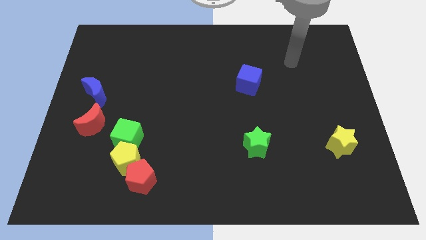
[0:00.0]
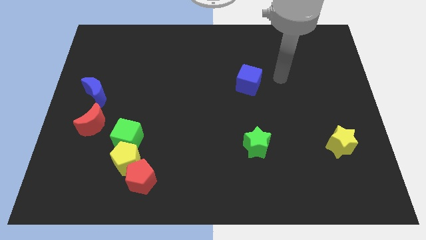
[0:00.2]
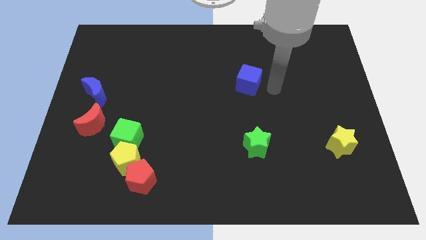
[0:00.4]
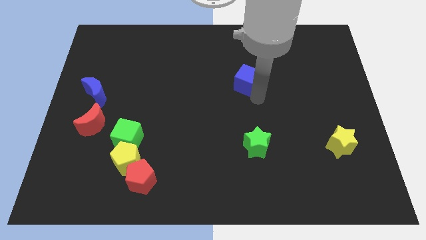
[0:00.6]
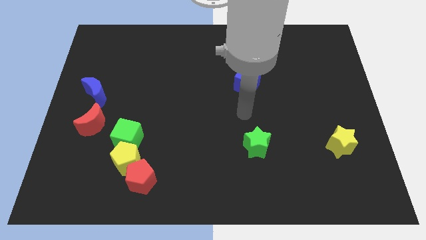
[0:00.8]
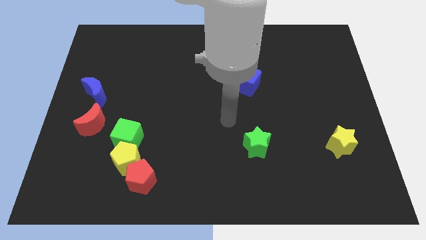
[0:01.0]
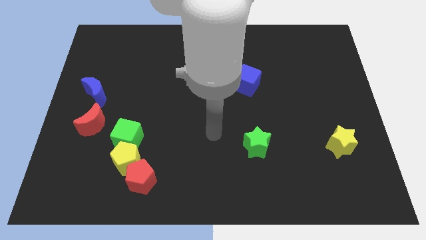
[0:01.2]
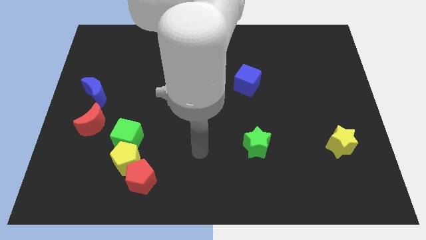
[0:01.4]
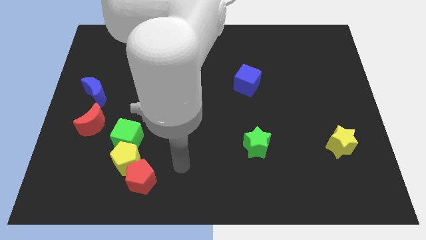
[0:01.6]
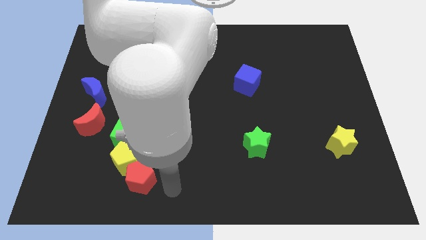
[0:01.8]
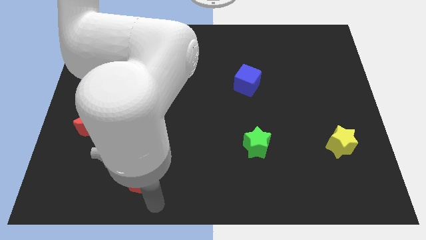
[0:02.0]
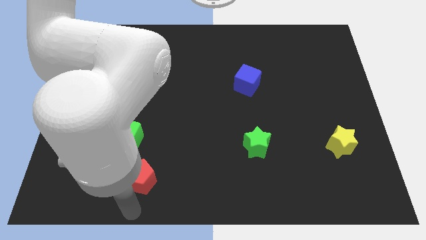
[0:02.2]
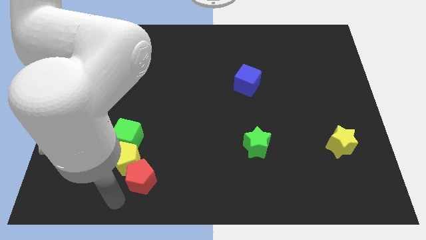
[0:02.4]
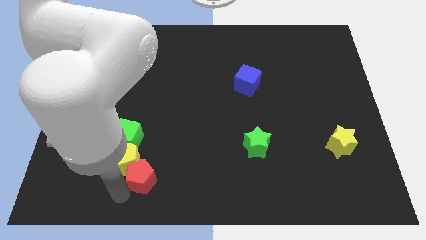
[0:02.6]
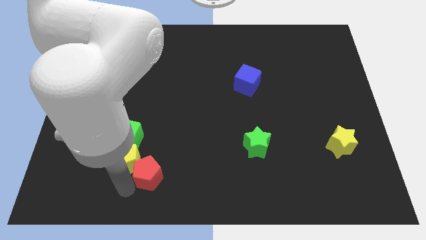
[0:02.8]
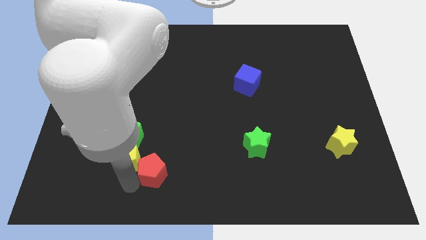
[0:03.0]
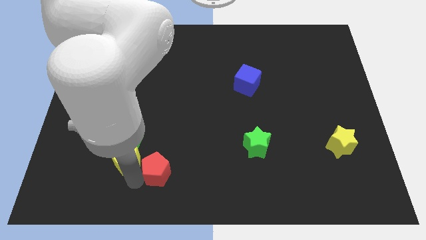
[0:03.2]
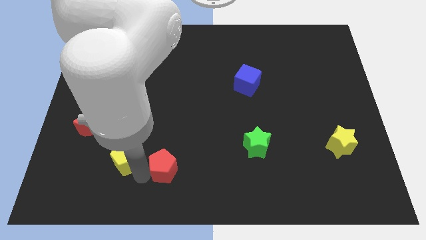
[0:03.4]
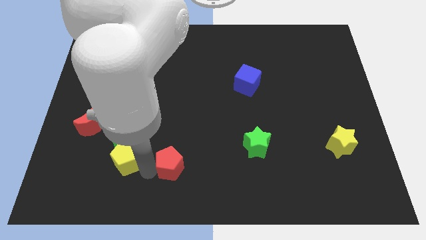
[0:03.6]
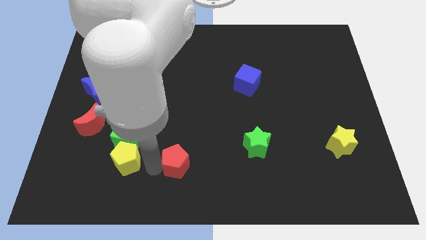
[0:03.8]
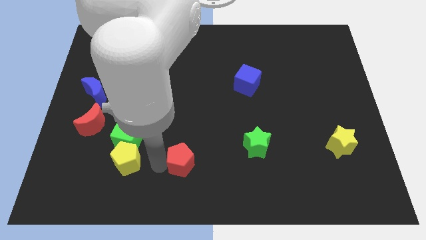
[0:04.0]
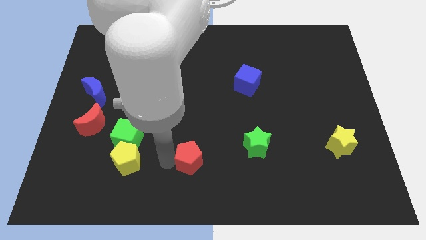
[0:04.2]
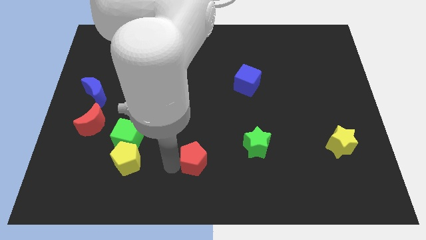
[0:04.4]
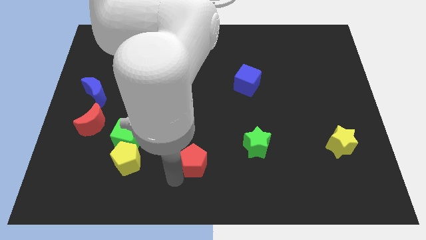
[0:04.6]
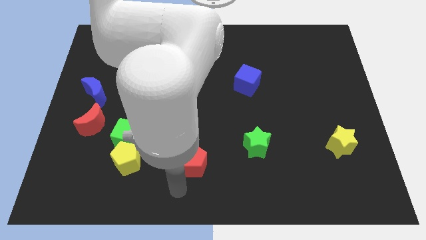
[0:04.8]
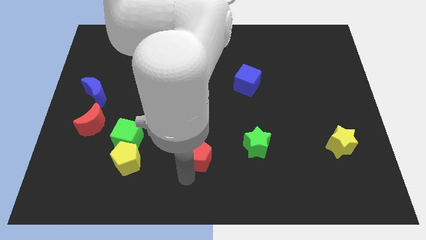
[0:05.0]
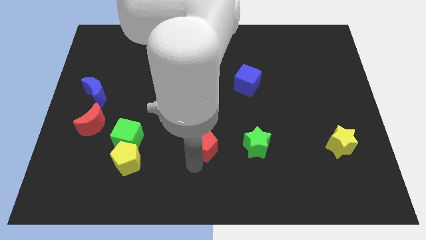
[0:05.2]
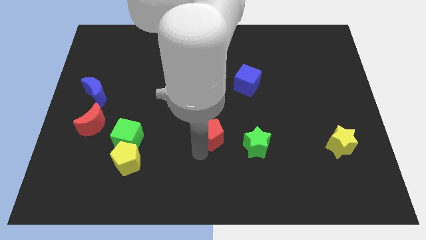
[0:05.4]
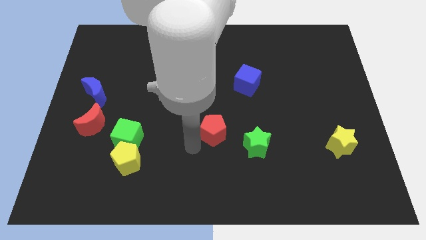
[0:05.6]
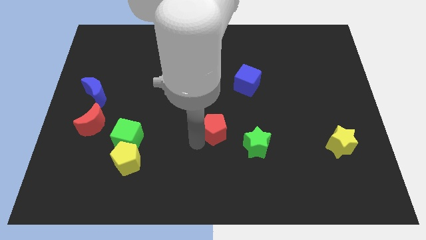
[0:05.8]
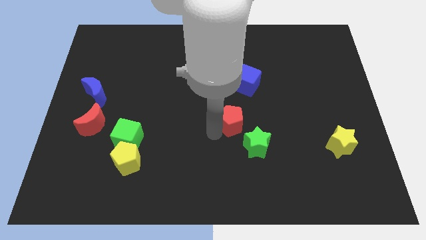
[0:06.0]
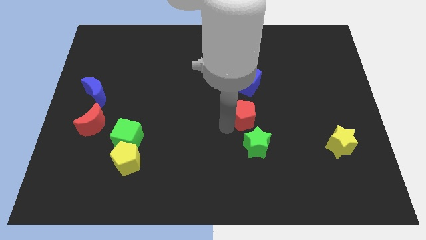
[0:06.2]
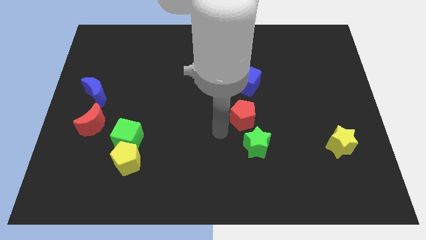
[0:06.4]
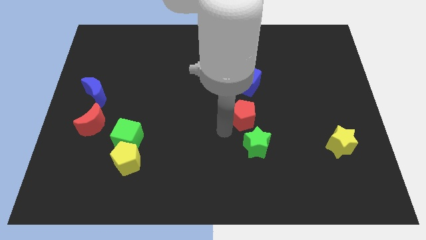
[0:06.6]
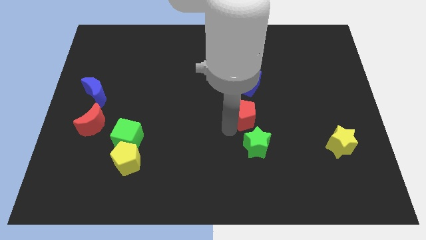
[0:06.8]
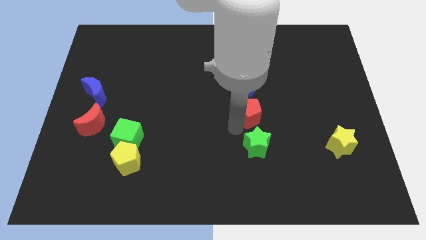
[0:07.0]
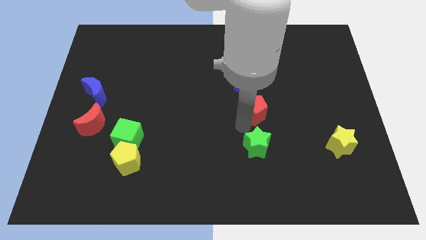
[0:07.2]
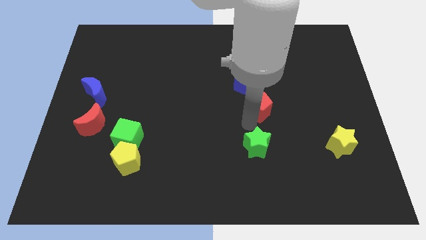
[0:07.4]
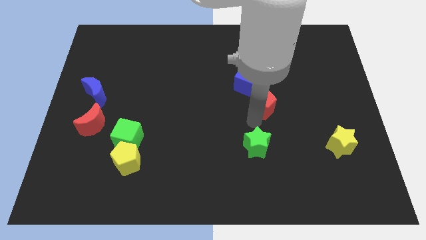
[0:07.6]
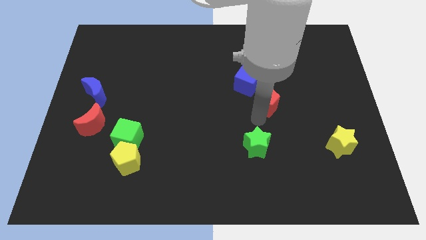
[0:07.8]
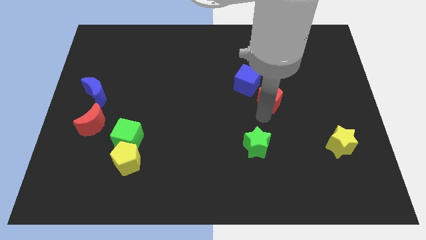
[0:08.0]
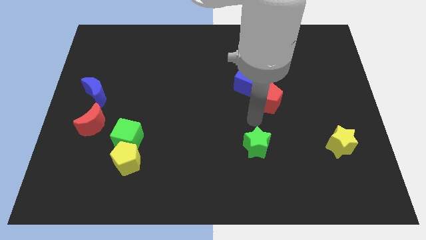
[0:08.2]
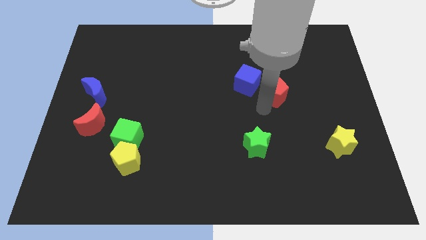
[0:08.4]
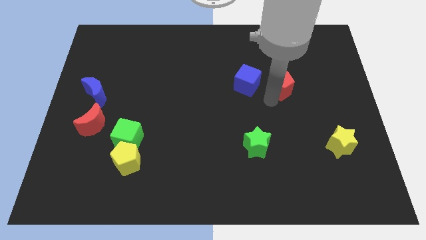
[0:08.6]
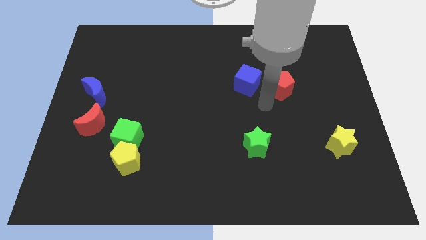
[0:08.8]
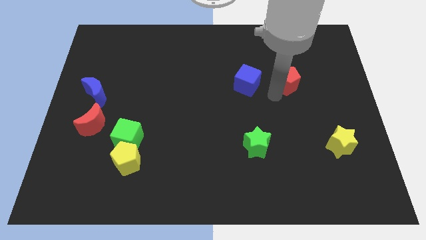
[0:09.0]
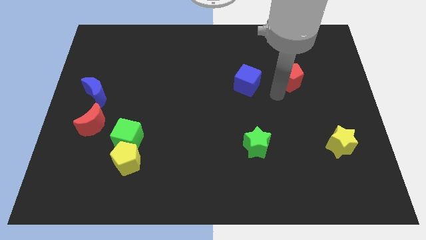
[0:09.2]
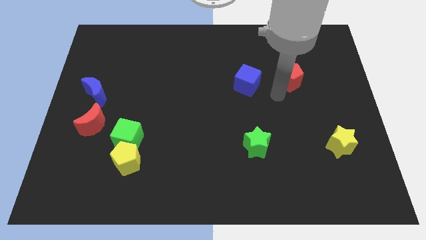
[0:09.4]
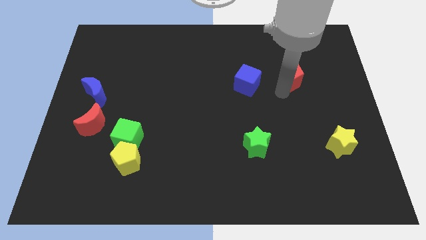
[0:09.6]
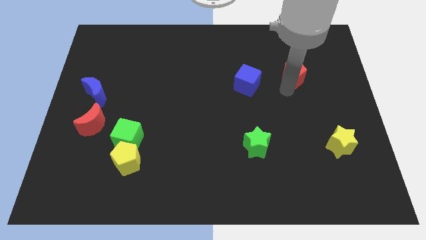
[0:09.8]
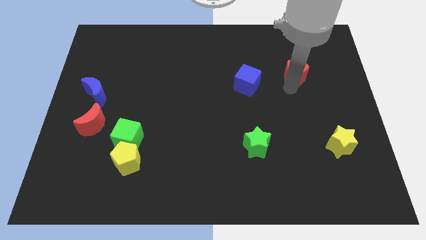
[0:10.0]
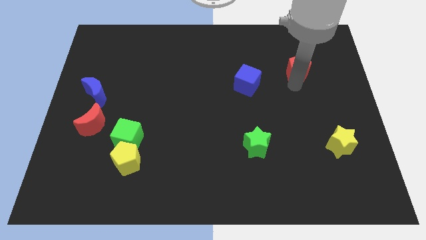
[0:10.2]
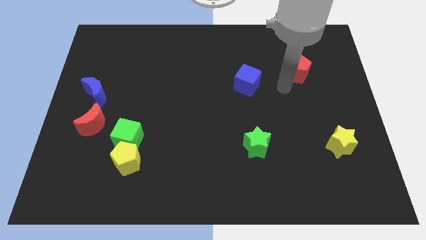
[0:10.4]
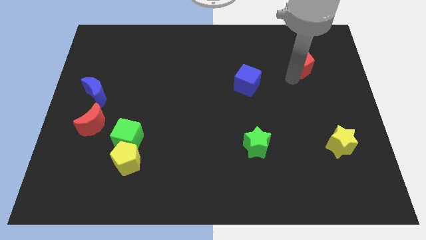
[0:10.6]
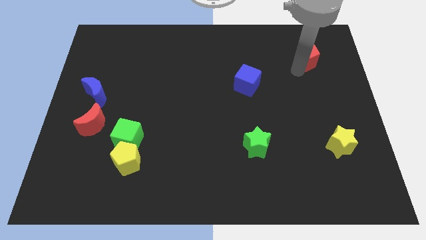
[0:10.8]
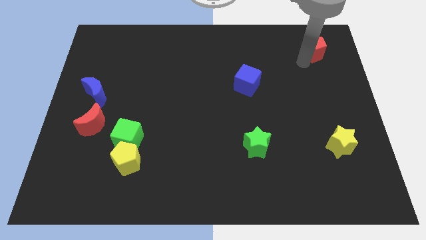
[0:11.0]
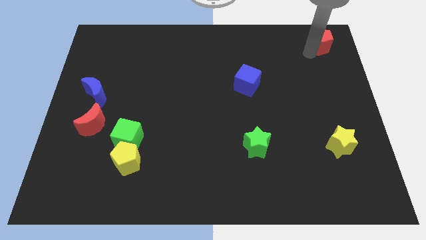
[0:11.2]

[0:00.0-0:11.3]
move the red pentagon to the top right of the board

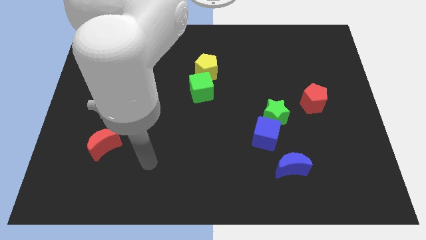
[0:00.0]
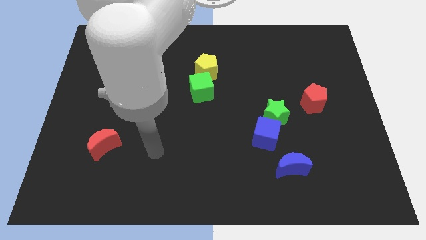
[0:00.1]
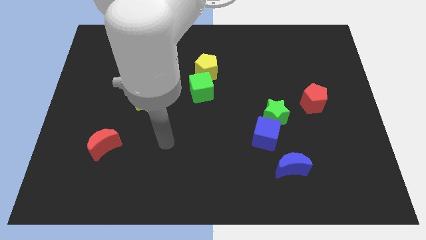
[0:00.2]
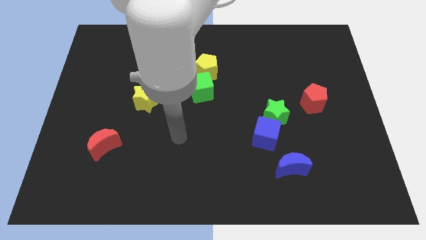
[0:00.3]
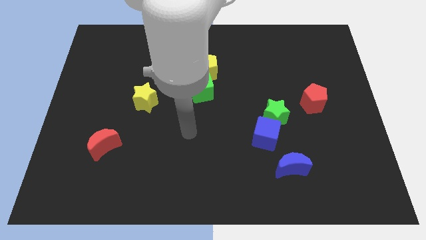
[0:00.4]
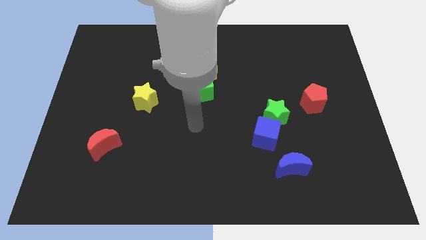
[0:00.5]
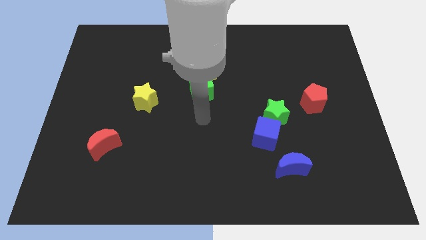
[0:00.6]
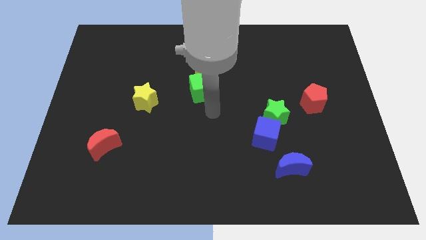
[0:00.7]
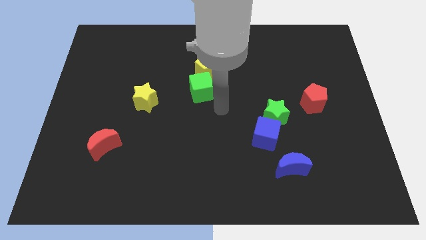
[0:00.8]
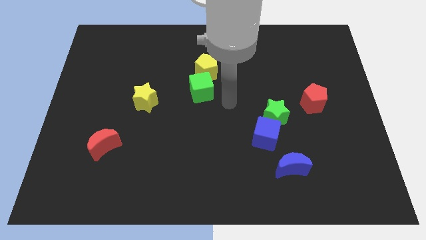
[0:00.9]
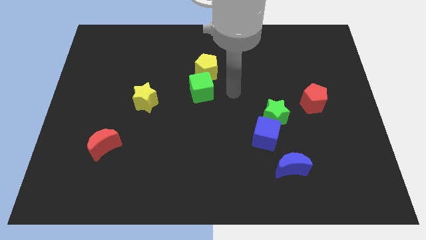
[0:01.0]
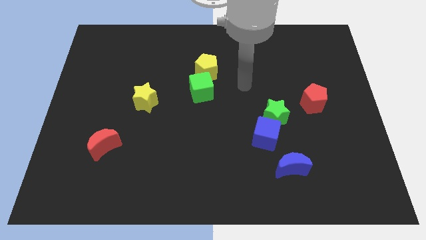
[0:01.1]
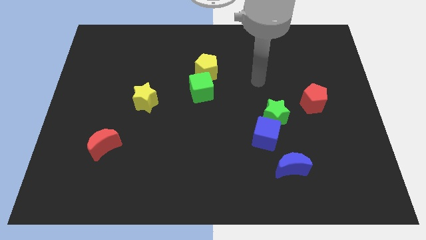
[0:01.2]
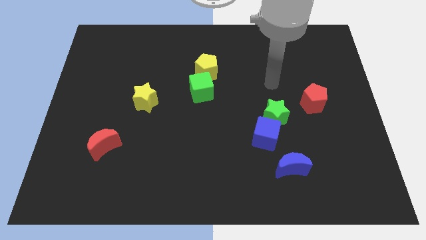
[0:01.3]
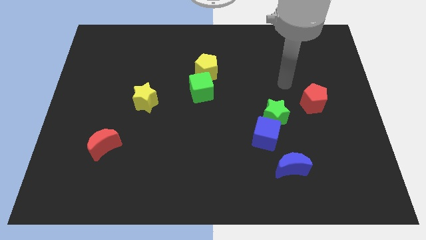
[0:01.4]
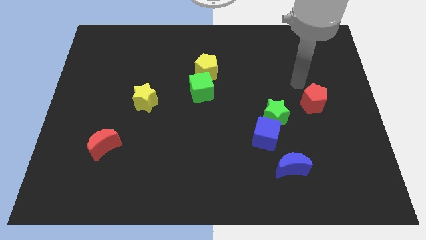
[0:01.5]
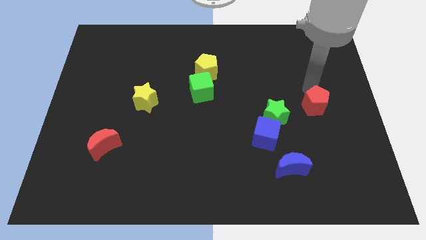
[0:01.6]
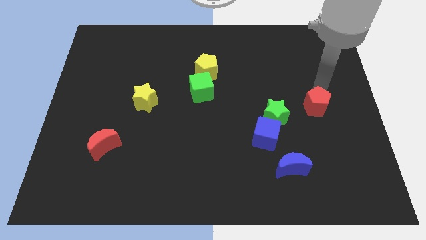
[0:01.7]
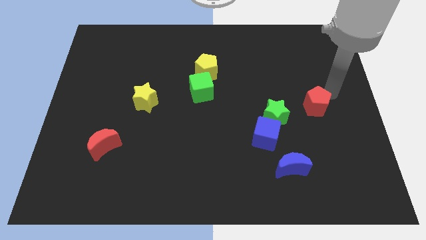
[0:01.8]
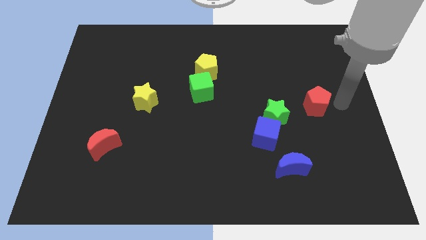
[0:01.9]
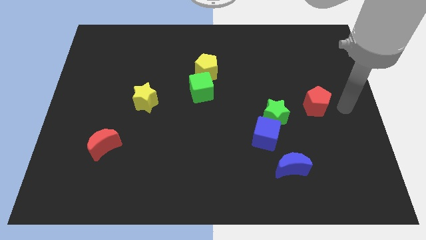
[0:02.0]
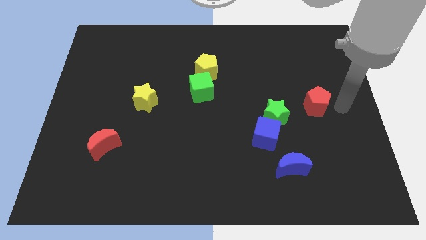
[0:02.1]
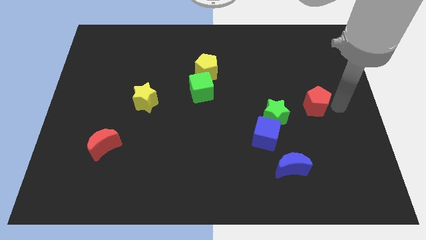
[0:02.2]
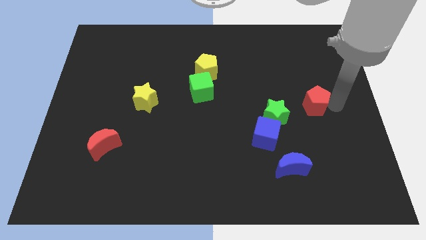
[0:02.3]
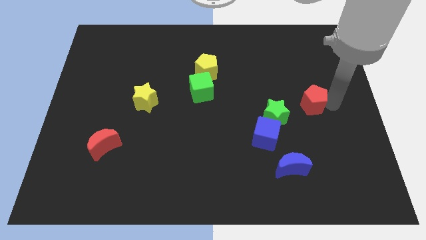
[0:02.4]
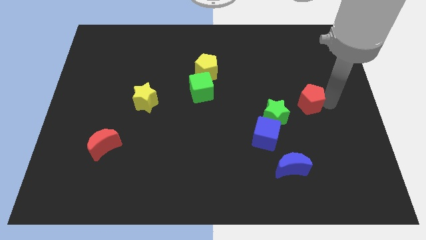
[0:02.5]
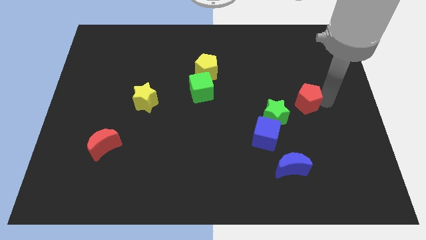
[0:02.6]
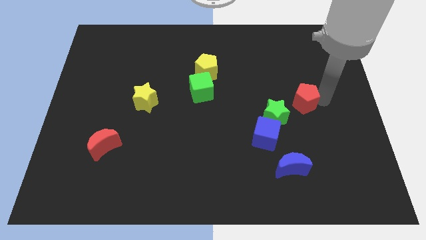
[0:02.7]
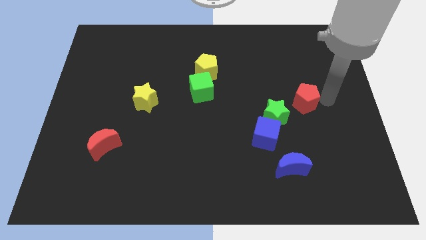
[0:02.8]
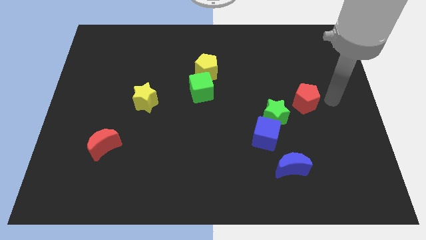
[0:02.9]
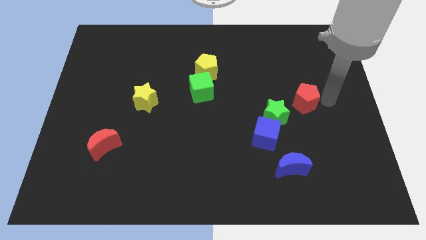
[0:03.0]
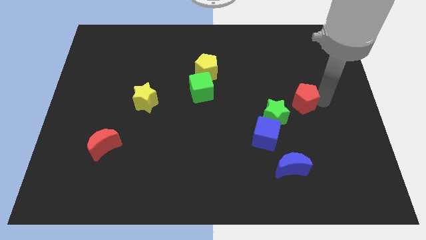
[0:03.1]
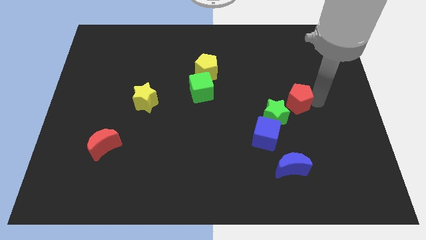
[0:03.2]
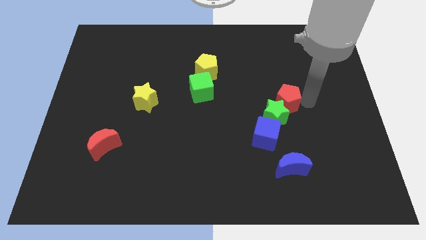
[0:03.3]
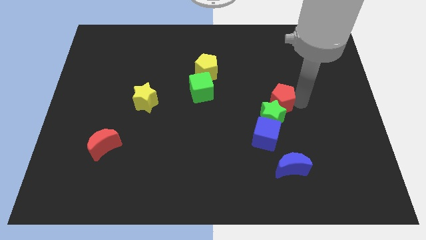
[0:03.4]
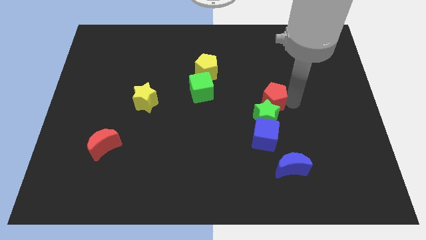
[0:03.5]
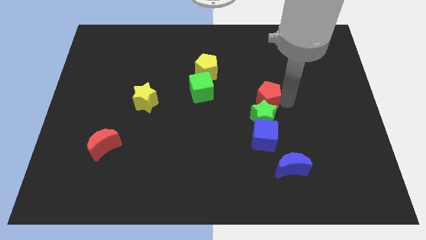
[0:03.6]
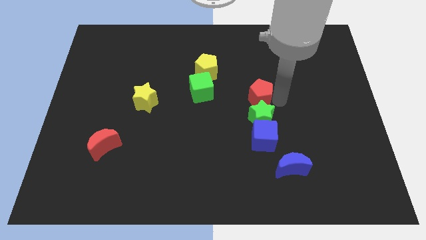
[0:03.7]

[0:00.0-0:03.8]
put the red pentagon to the center
